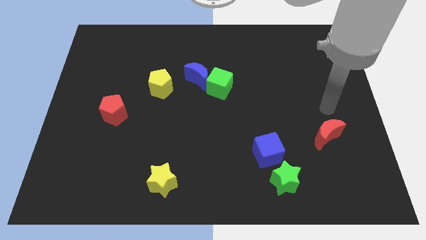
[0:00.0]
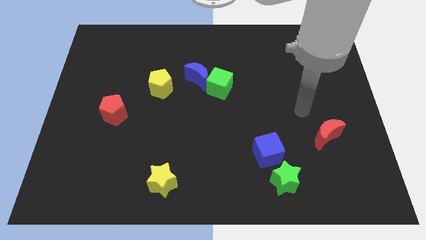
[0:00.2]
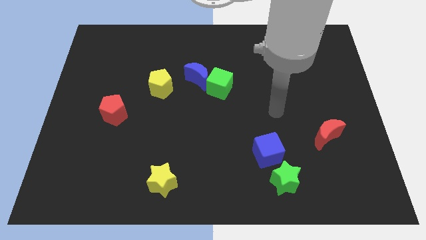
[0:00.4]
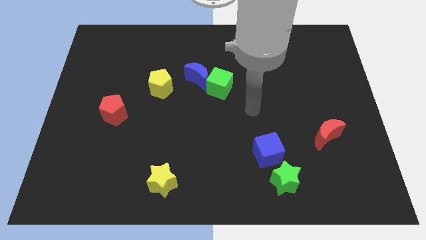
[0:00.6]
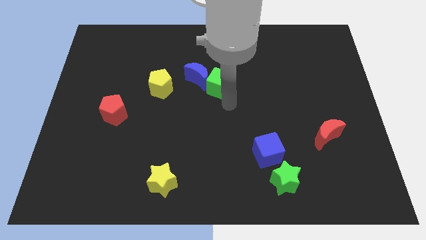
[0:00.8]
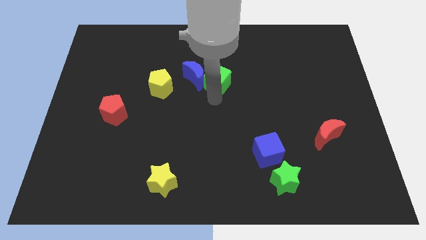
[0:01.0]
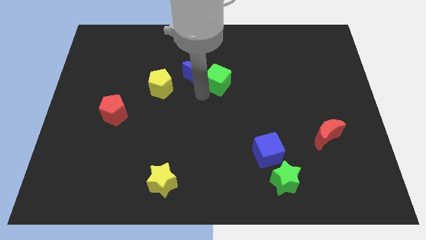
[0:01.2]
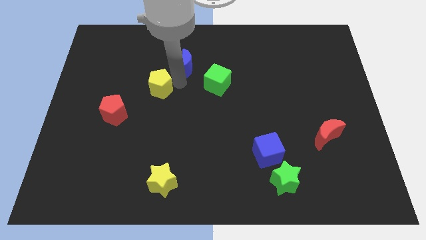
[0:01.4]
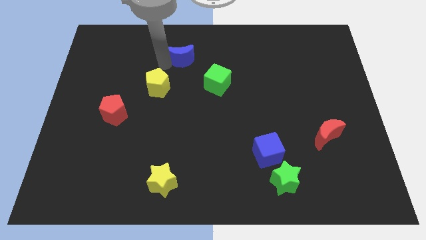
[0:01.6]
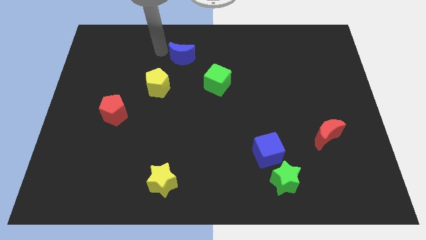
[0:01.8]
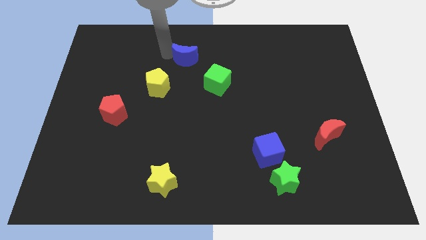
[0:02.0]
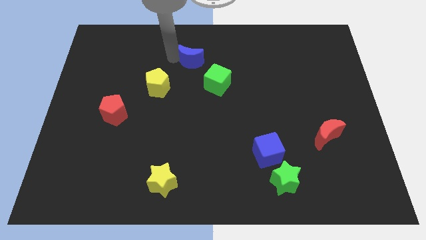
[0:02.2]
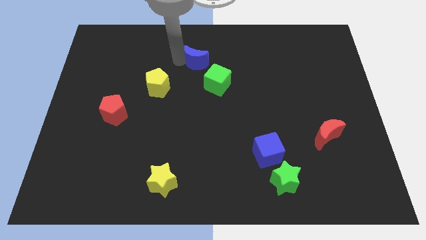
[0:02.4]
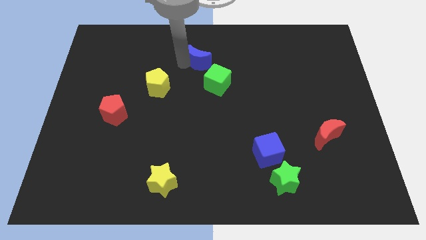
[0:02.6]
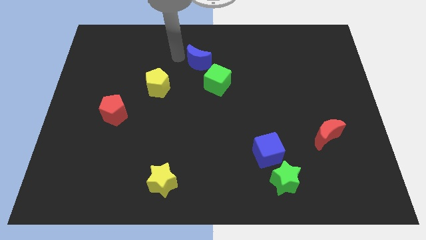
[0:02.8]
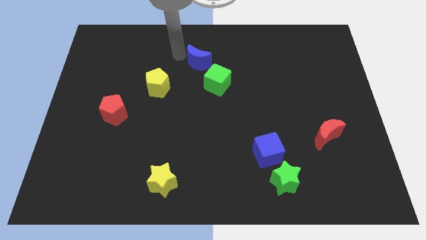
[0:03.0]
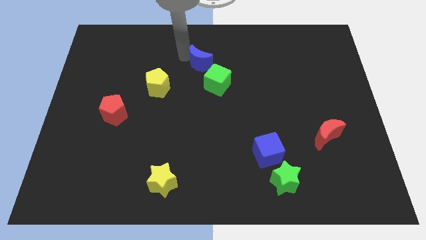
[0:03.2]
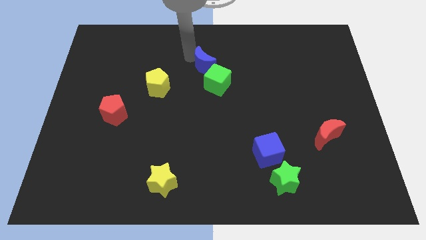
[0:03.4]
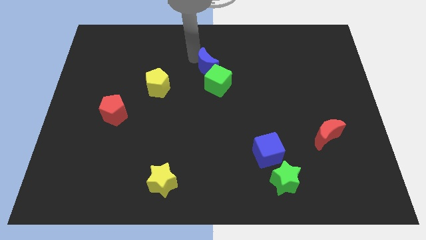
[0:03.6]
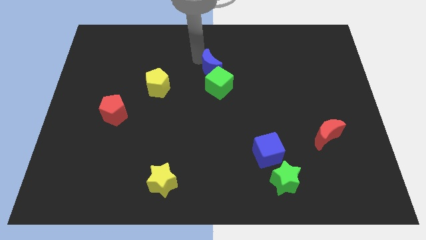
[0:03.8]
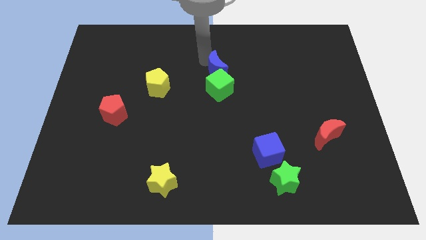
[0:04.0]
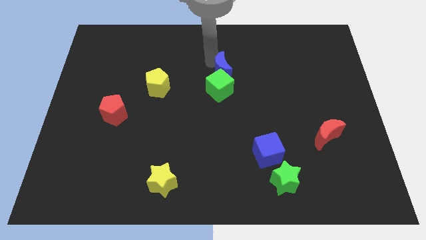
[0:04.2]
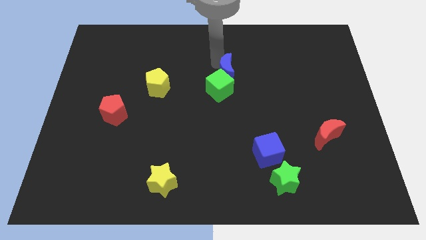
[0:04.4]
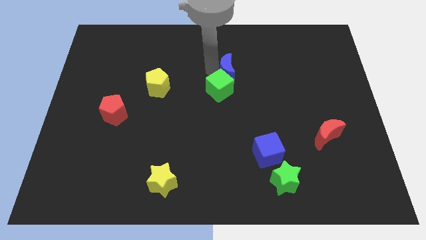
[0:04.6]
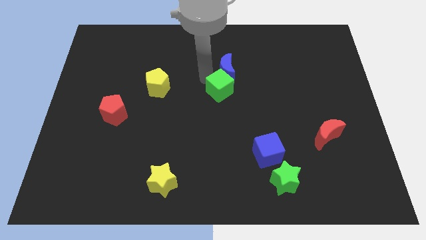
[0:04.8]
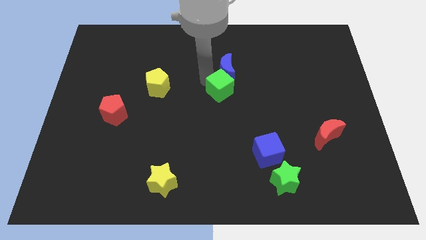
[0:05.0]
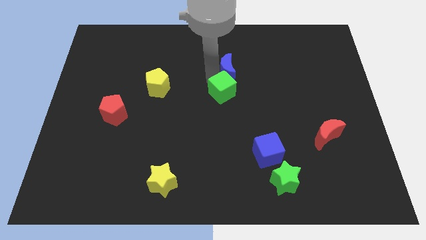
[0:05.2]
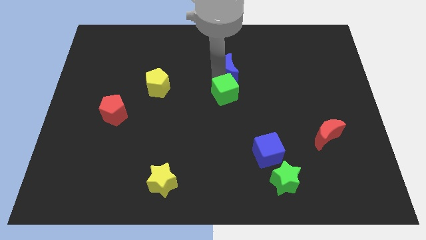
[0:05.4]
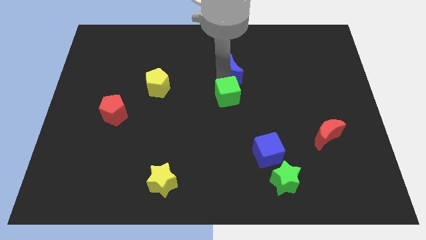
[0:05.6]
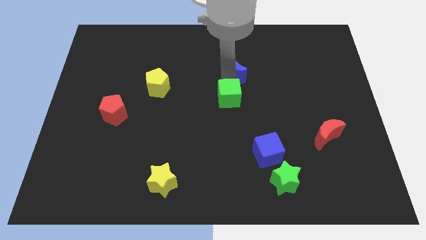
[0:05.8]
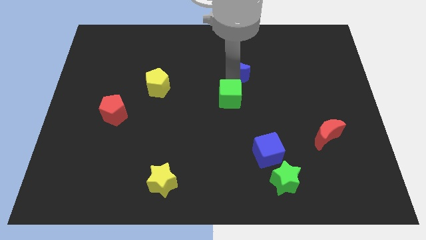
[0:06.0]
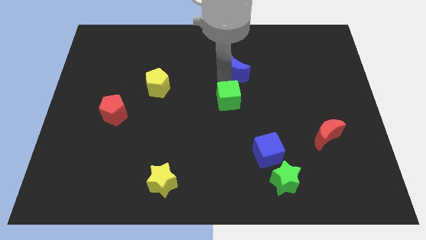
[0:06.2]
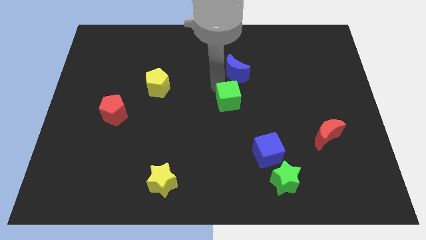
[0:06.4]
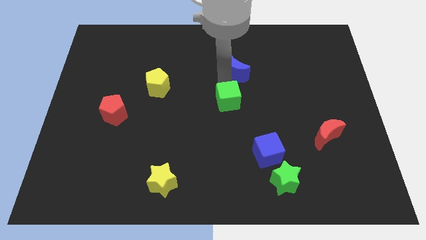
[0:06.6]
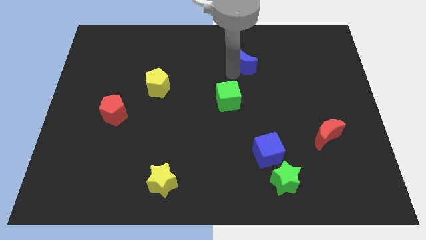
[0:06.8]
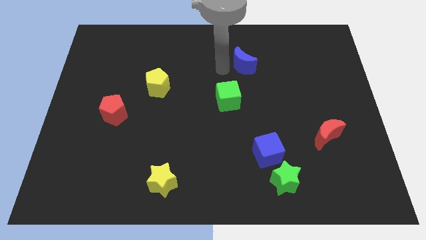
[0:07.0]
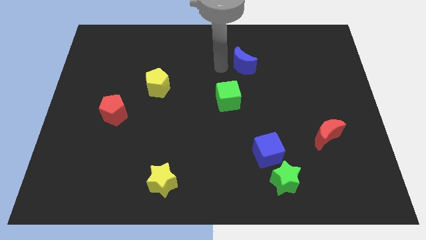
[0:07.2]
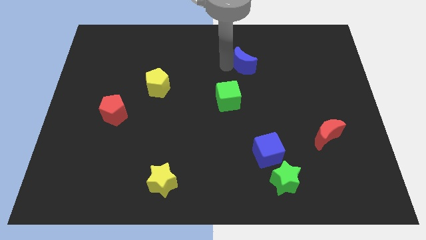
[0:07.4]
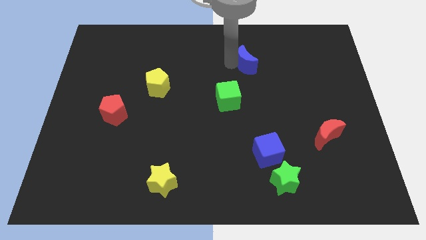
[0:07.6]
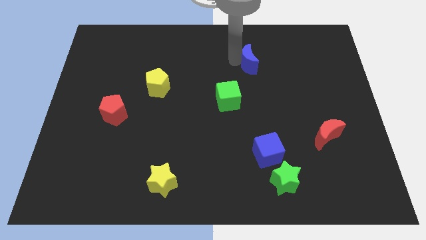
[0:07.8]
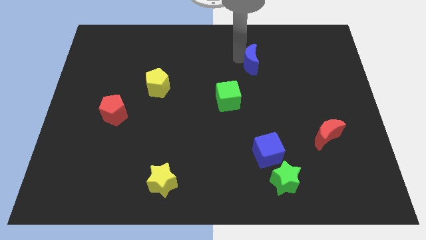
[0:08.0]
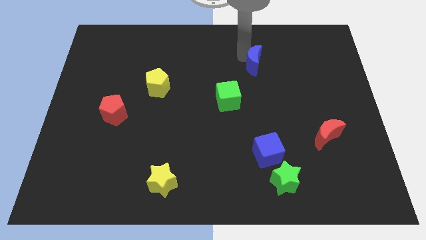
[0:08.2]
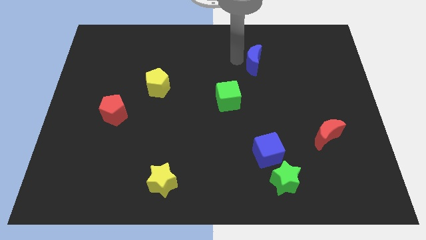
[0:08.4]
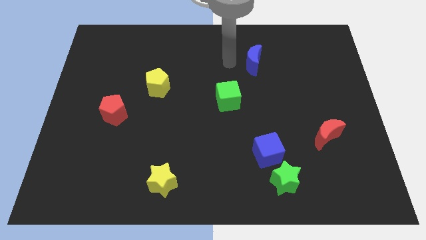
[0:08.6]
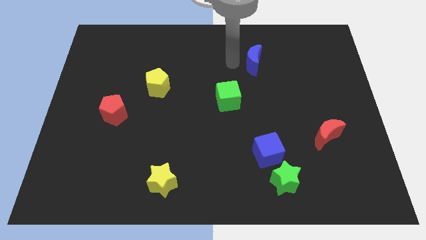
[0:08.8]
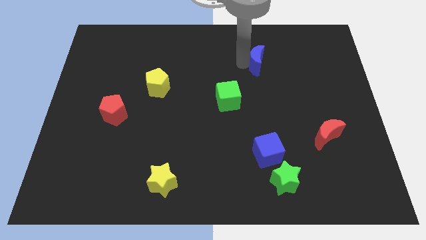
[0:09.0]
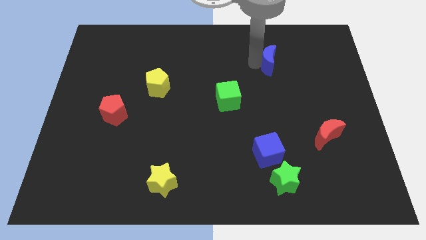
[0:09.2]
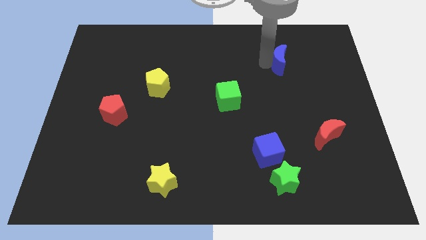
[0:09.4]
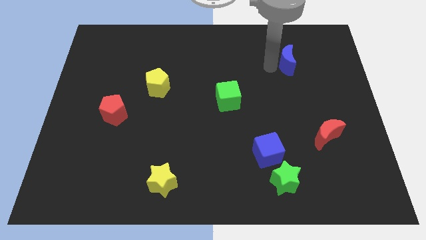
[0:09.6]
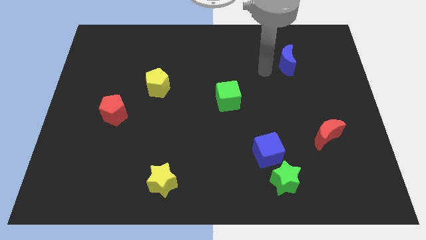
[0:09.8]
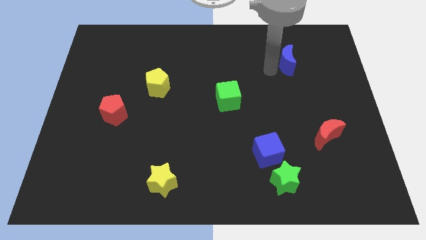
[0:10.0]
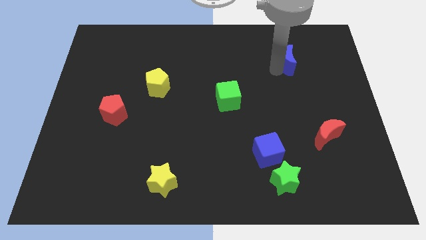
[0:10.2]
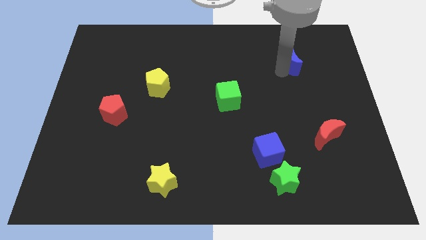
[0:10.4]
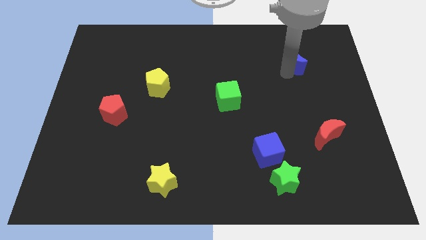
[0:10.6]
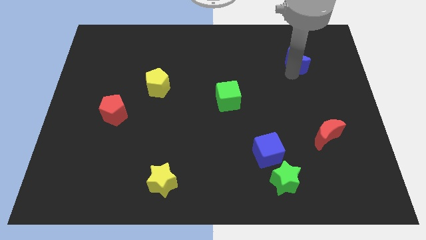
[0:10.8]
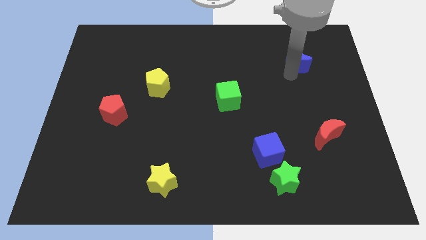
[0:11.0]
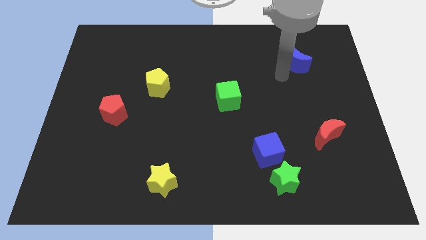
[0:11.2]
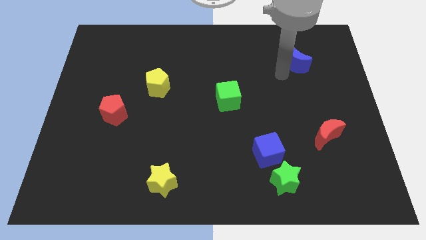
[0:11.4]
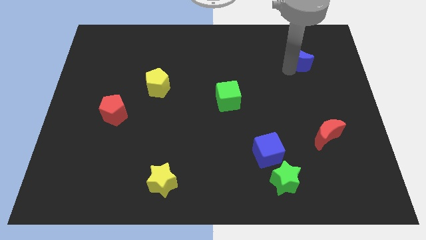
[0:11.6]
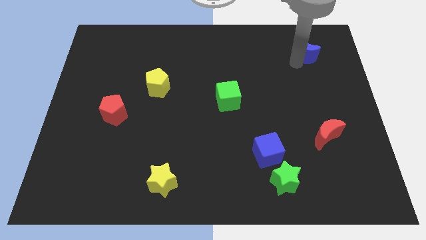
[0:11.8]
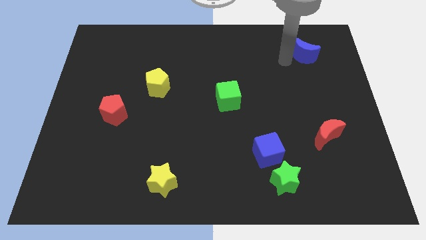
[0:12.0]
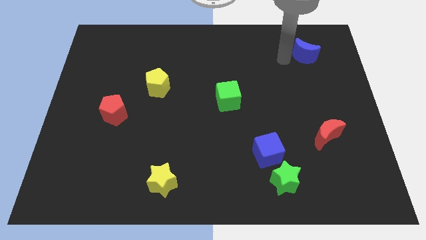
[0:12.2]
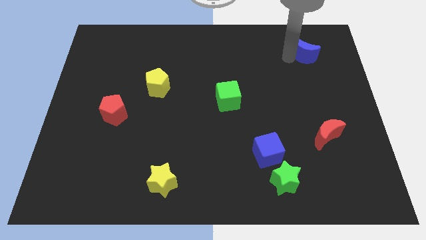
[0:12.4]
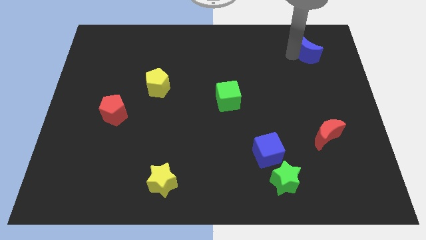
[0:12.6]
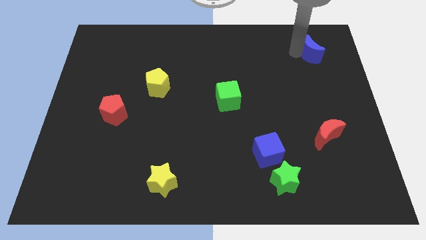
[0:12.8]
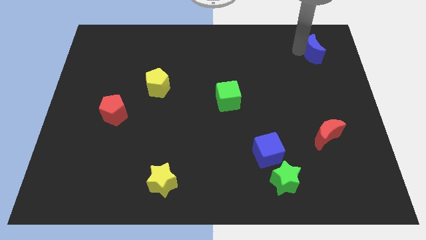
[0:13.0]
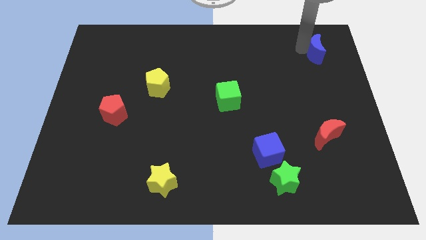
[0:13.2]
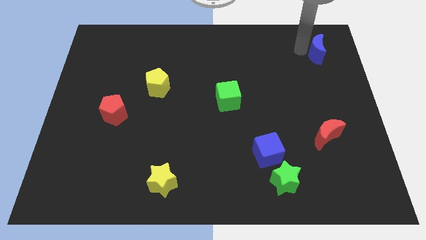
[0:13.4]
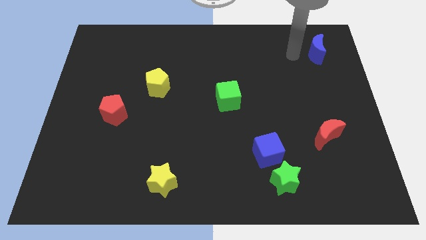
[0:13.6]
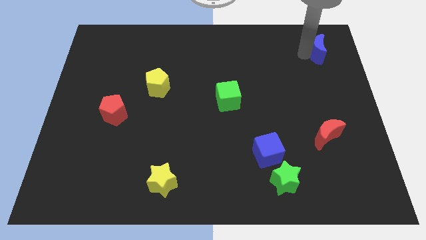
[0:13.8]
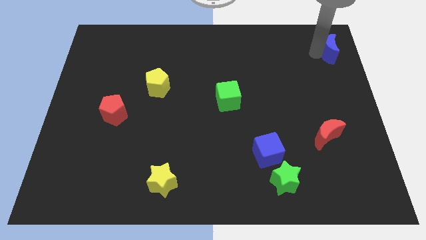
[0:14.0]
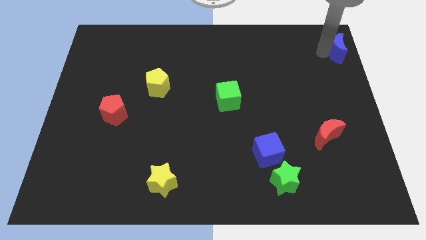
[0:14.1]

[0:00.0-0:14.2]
move the blue moon to the top right of the board
